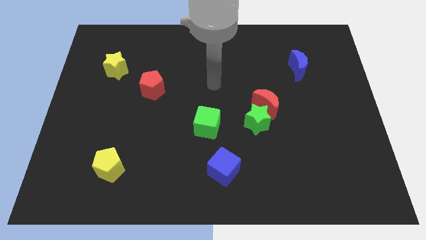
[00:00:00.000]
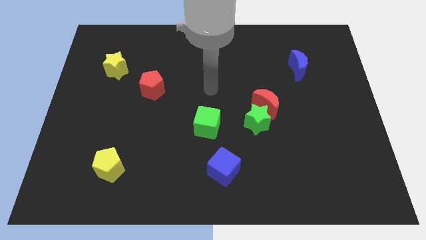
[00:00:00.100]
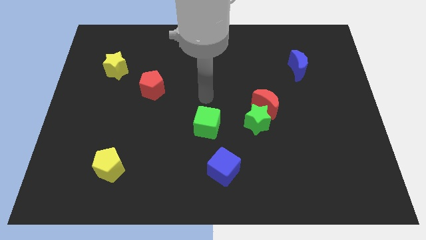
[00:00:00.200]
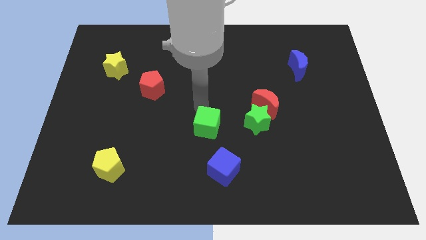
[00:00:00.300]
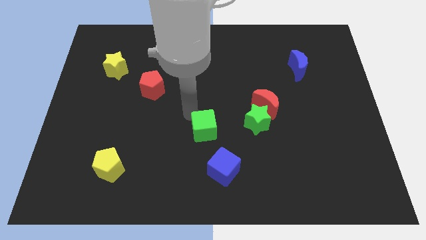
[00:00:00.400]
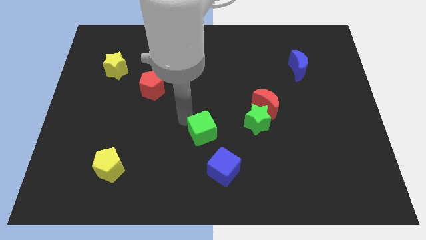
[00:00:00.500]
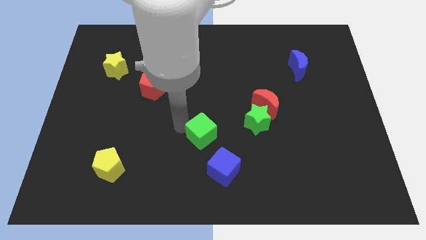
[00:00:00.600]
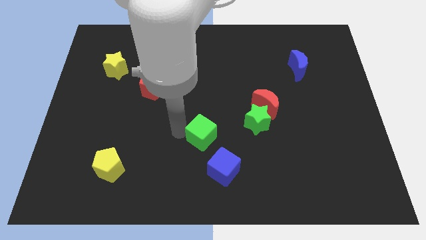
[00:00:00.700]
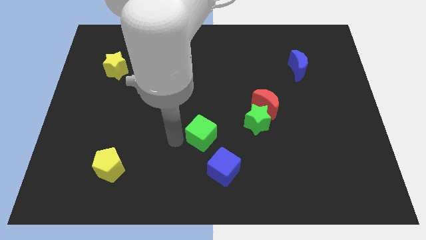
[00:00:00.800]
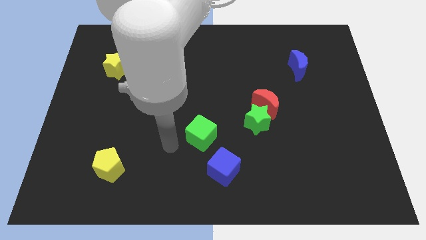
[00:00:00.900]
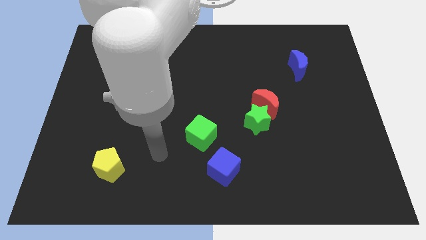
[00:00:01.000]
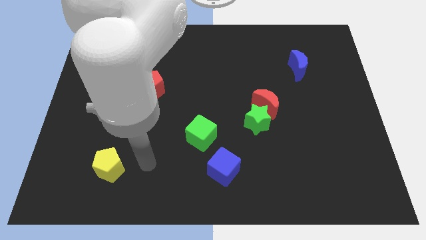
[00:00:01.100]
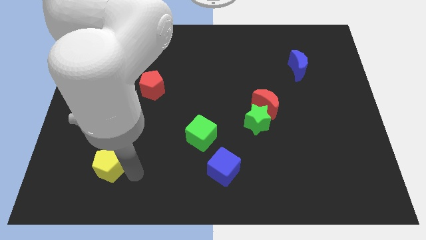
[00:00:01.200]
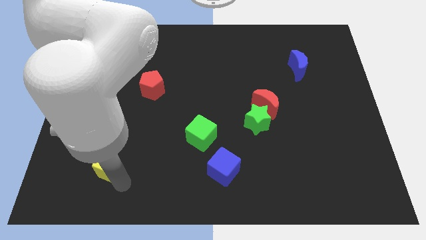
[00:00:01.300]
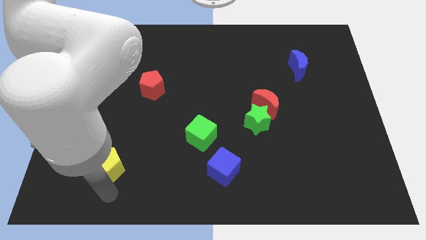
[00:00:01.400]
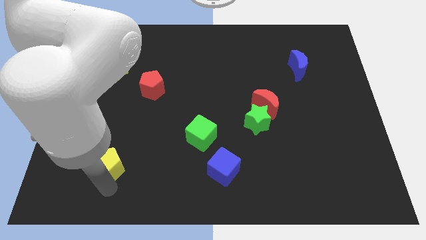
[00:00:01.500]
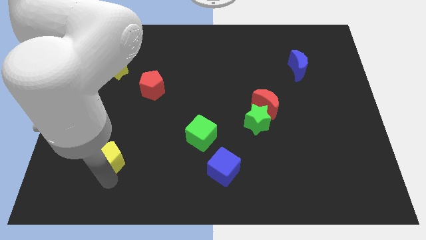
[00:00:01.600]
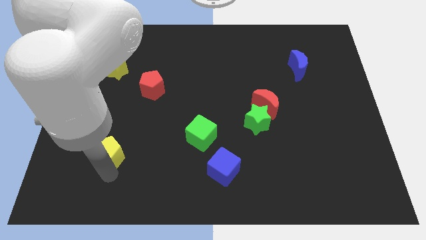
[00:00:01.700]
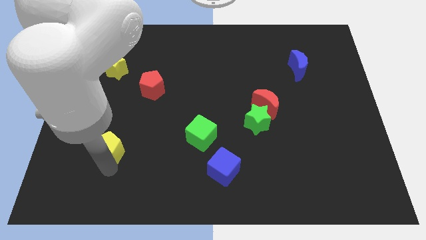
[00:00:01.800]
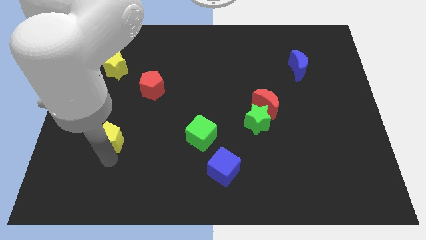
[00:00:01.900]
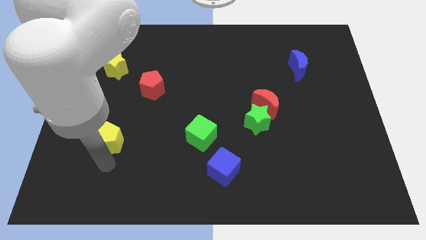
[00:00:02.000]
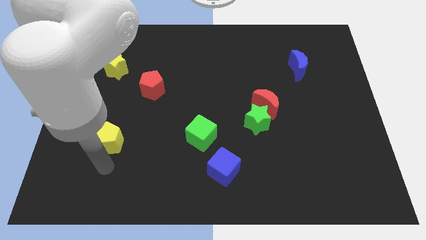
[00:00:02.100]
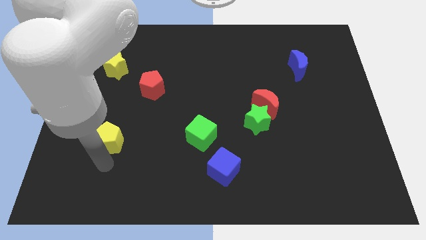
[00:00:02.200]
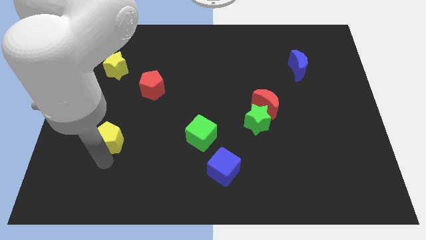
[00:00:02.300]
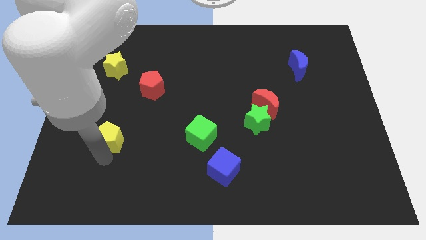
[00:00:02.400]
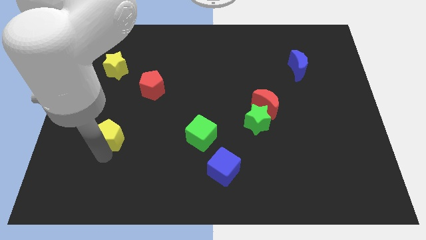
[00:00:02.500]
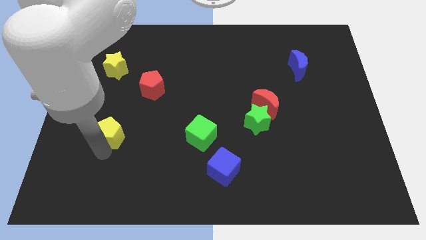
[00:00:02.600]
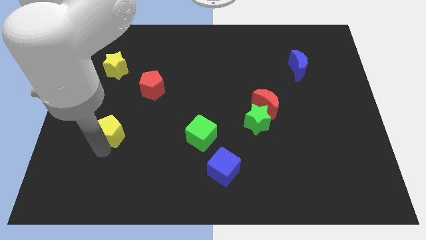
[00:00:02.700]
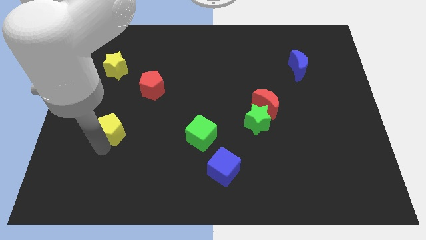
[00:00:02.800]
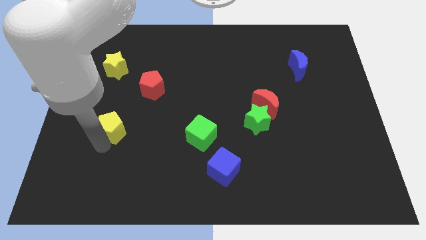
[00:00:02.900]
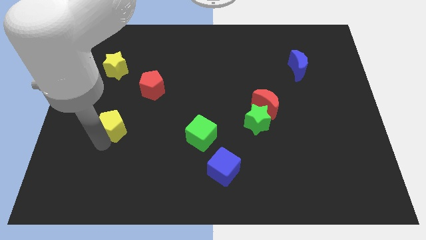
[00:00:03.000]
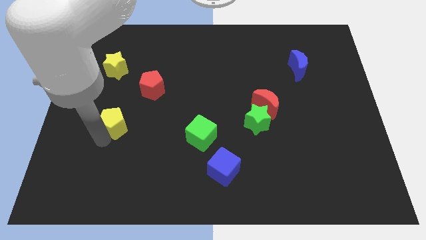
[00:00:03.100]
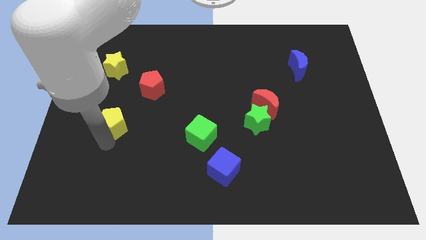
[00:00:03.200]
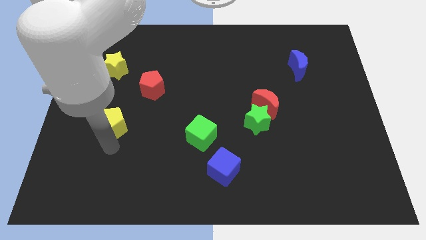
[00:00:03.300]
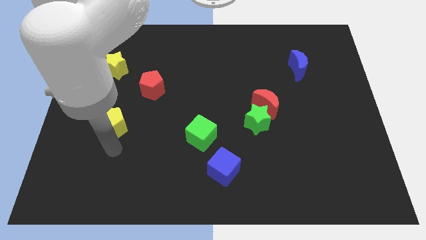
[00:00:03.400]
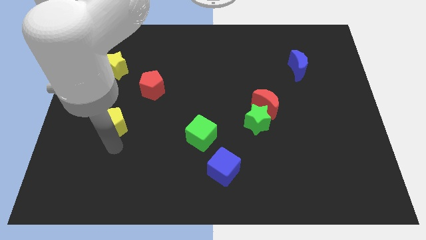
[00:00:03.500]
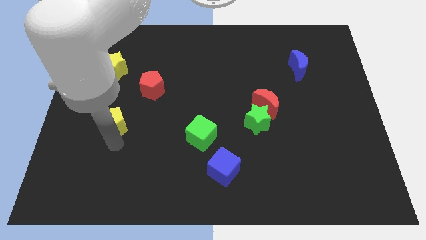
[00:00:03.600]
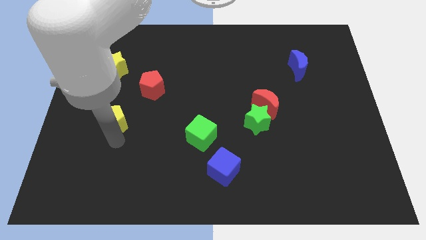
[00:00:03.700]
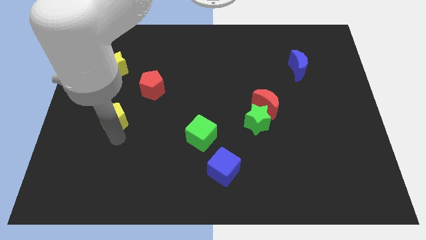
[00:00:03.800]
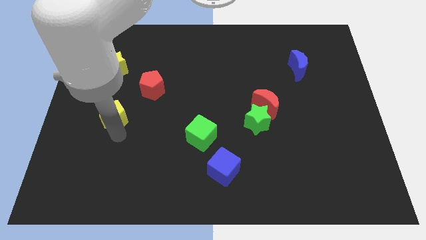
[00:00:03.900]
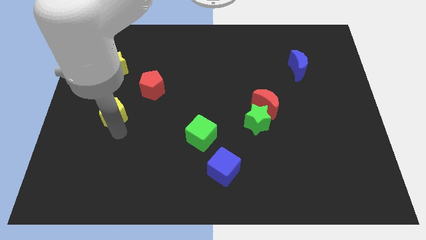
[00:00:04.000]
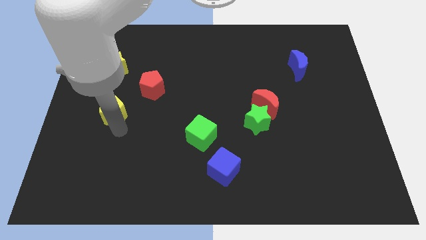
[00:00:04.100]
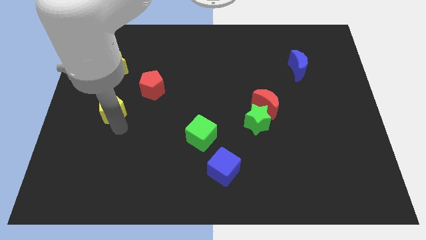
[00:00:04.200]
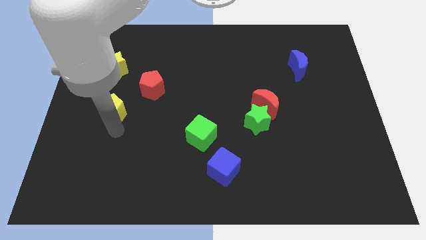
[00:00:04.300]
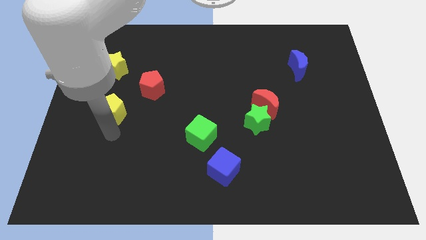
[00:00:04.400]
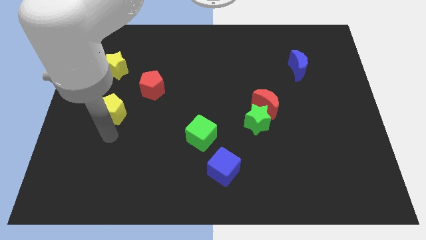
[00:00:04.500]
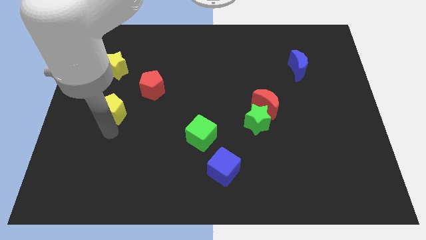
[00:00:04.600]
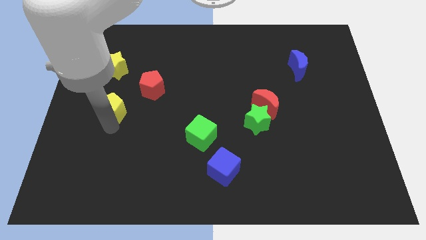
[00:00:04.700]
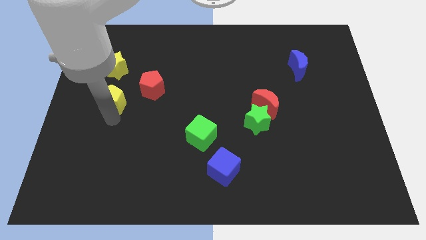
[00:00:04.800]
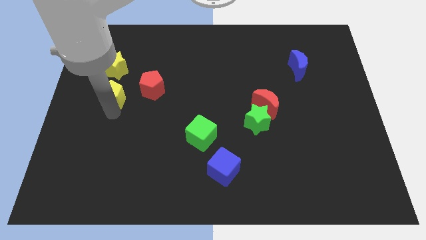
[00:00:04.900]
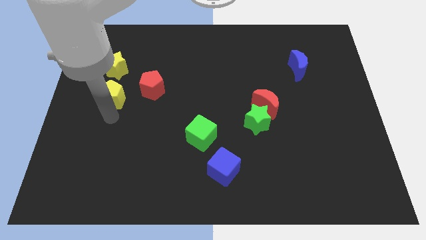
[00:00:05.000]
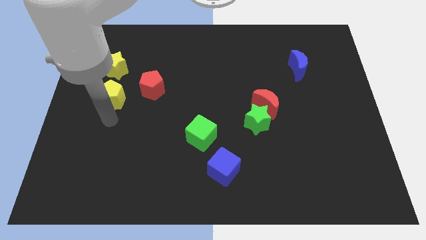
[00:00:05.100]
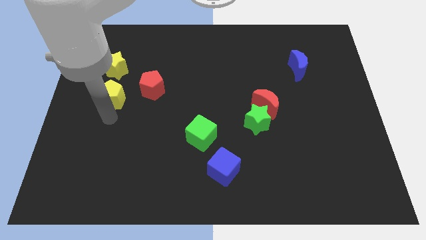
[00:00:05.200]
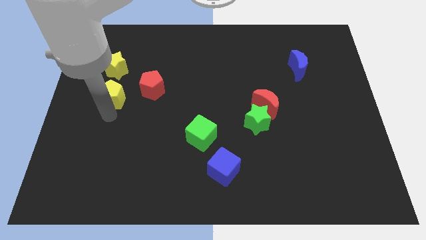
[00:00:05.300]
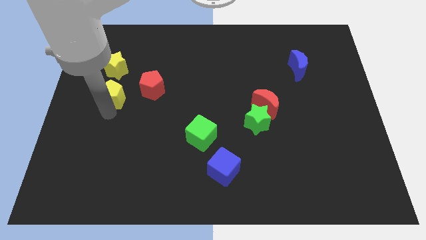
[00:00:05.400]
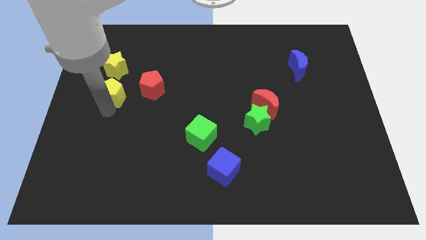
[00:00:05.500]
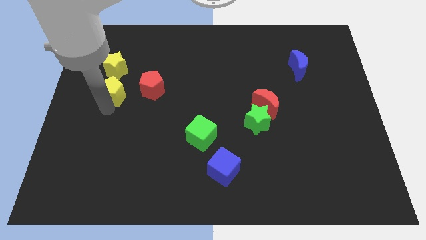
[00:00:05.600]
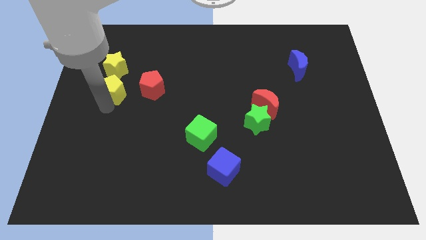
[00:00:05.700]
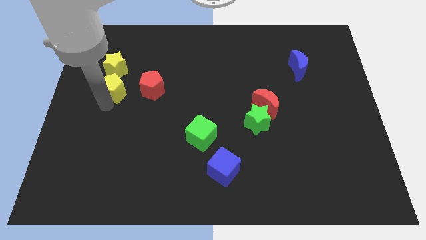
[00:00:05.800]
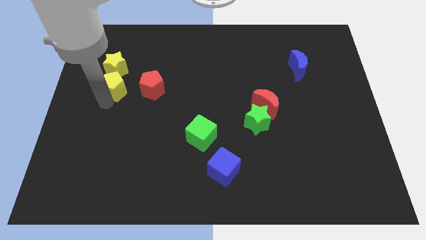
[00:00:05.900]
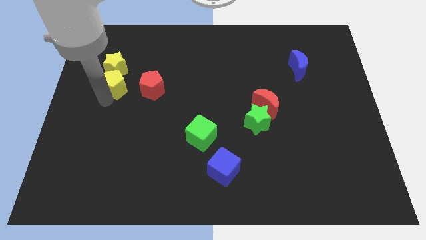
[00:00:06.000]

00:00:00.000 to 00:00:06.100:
push the yellow pentagon close to the yellow star

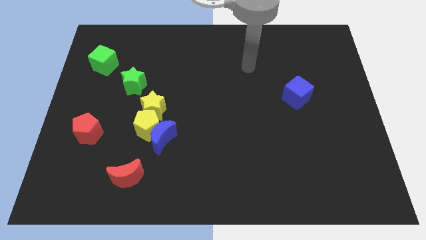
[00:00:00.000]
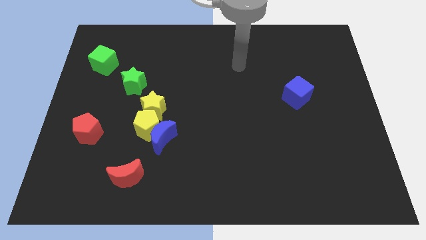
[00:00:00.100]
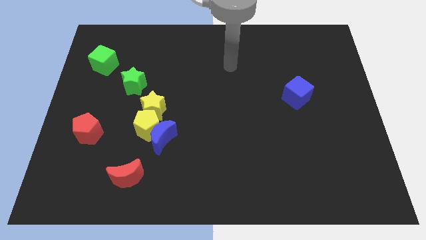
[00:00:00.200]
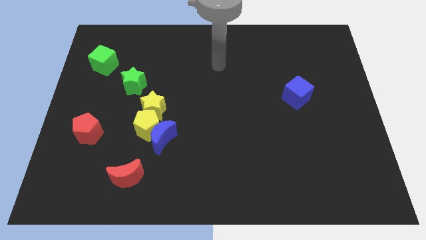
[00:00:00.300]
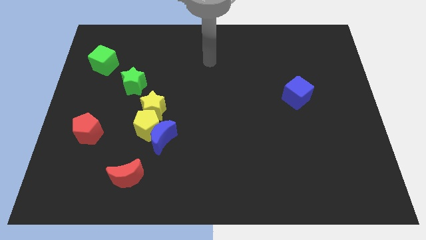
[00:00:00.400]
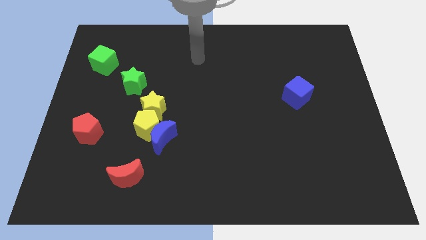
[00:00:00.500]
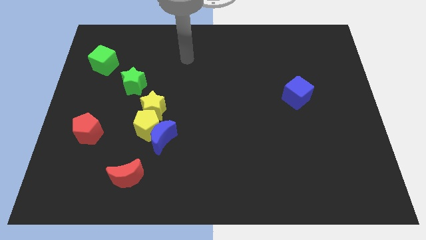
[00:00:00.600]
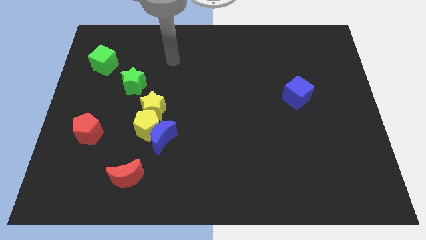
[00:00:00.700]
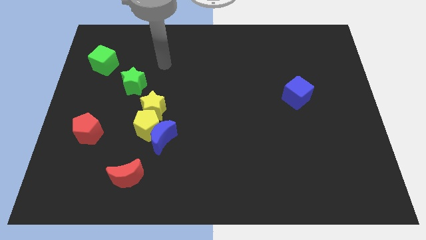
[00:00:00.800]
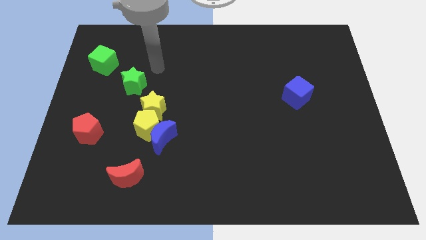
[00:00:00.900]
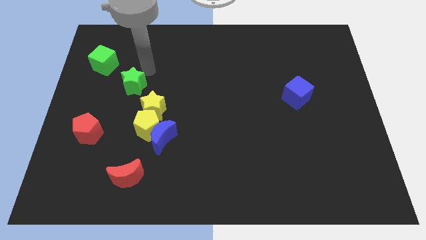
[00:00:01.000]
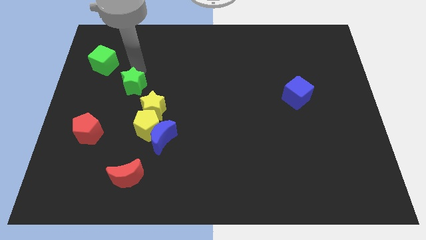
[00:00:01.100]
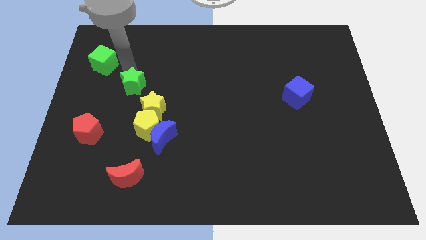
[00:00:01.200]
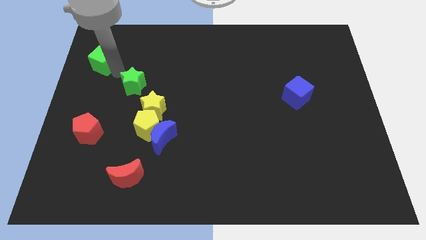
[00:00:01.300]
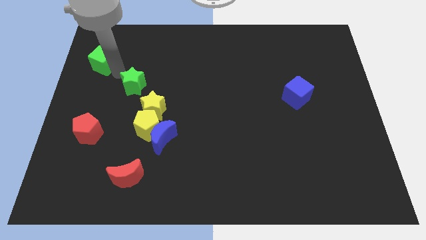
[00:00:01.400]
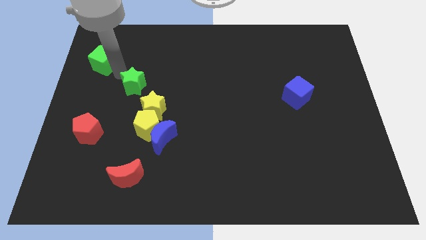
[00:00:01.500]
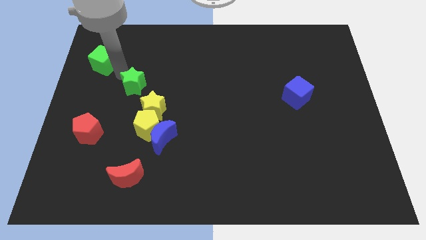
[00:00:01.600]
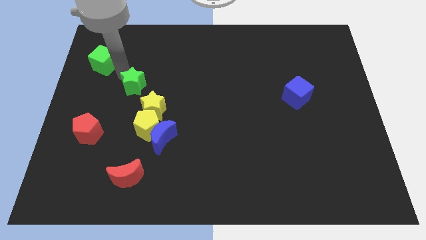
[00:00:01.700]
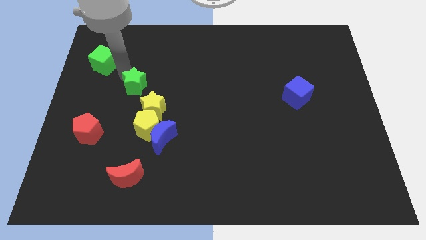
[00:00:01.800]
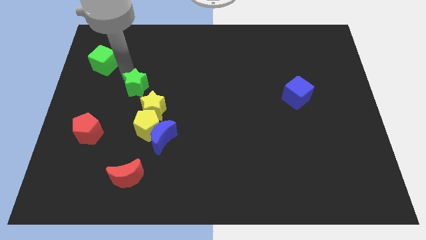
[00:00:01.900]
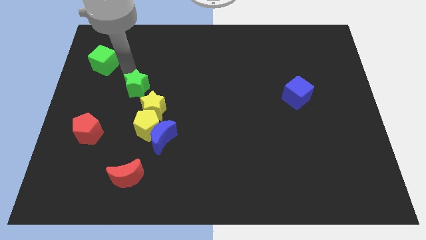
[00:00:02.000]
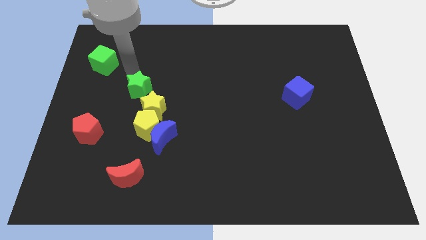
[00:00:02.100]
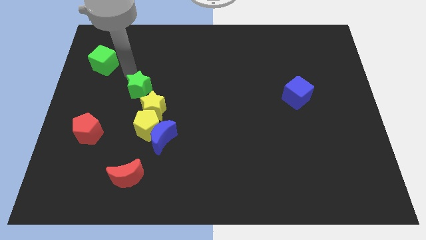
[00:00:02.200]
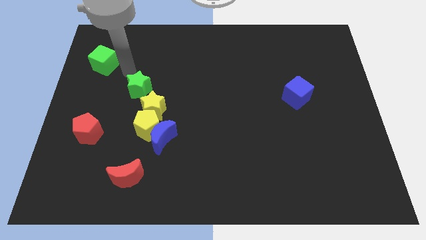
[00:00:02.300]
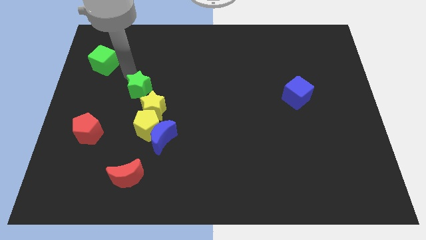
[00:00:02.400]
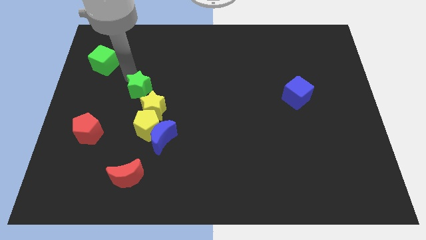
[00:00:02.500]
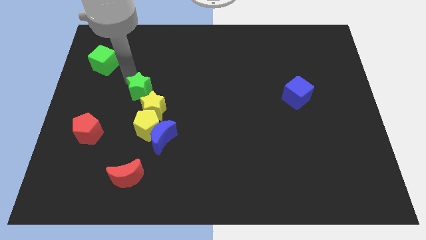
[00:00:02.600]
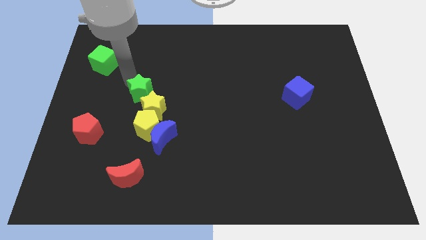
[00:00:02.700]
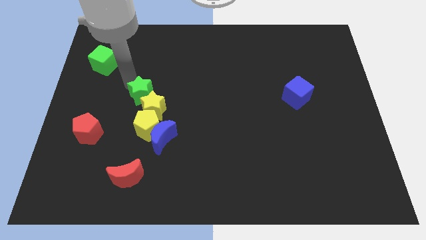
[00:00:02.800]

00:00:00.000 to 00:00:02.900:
move the green star to the yellow star
